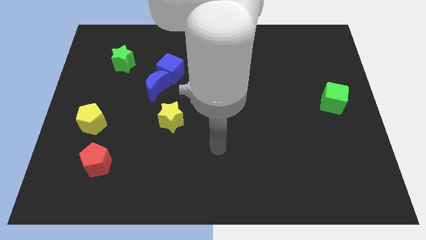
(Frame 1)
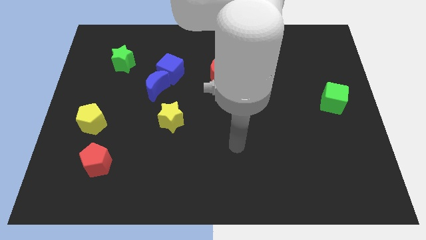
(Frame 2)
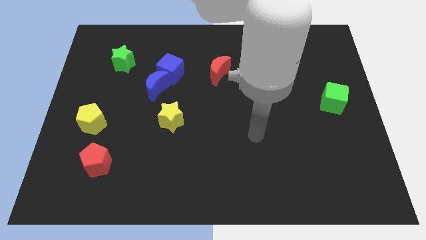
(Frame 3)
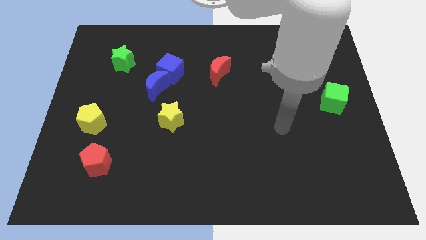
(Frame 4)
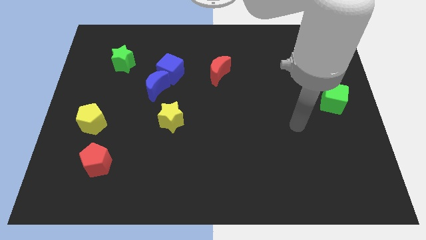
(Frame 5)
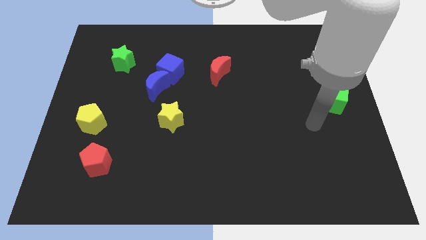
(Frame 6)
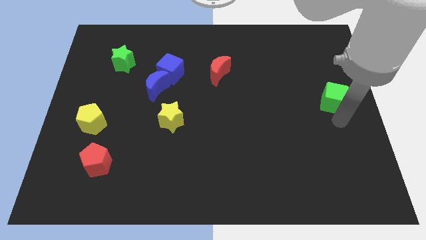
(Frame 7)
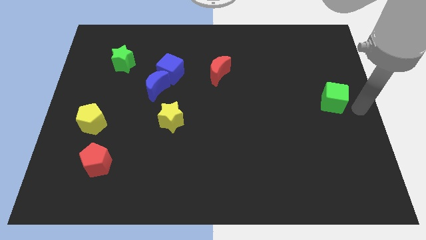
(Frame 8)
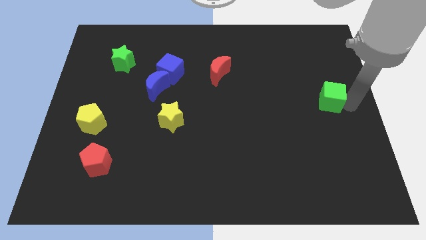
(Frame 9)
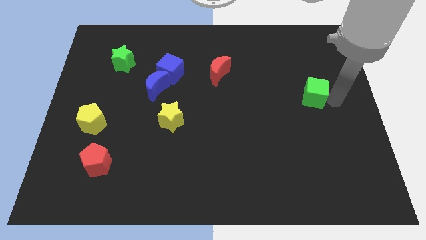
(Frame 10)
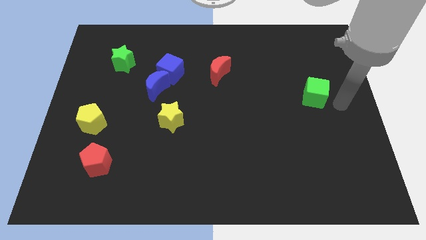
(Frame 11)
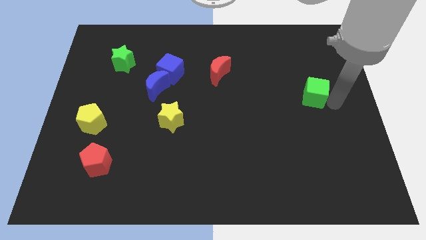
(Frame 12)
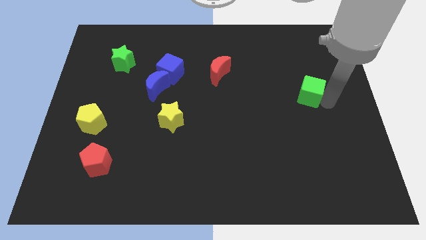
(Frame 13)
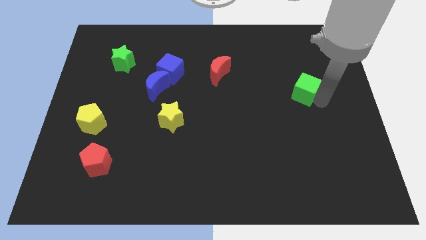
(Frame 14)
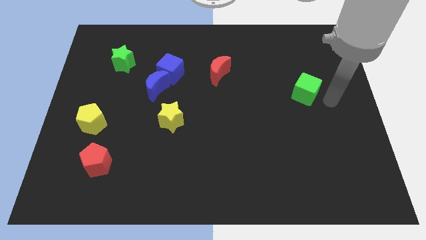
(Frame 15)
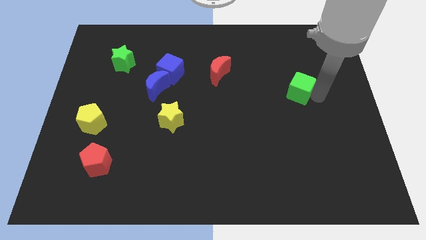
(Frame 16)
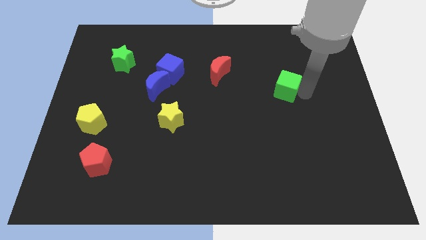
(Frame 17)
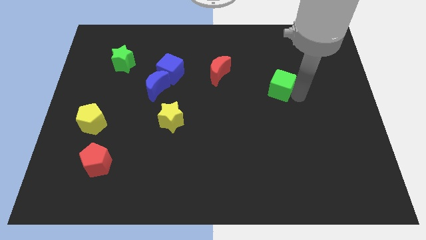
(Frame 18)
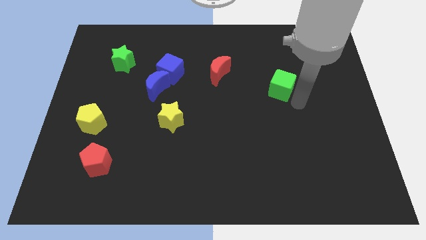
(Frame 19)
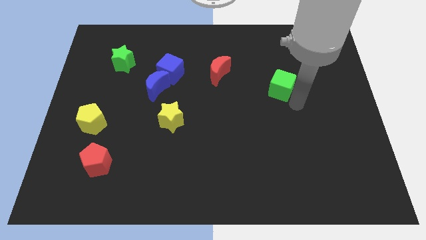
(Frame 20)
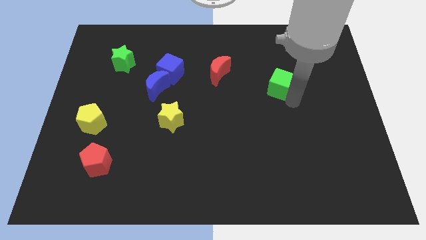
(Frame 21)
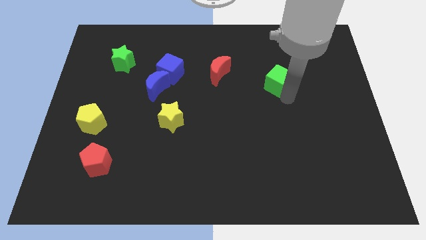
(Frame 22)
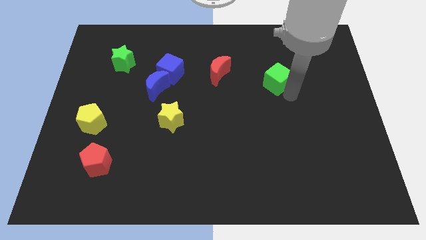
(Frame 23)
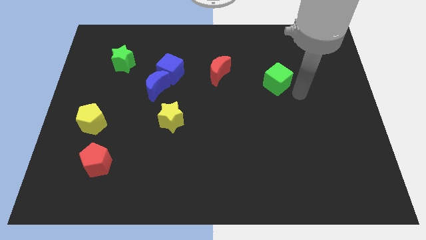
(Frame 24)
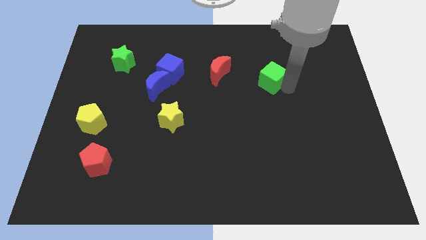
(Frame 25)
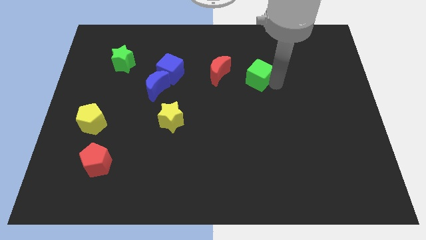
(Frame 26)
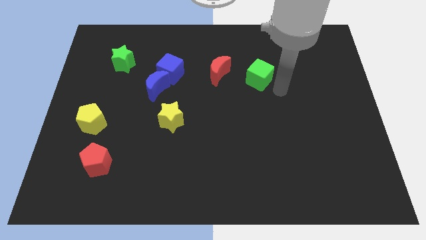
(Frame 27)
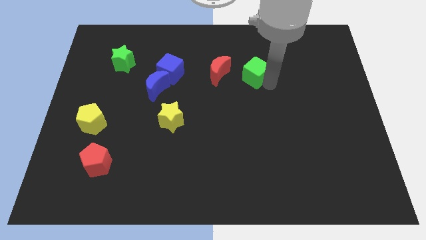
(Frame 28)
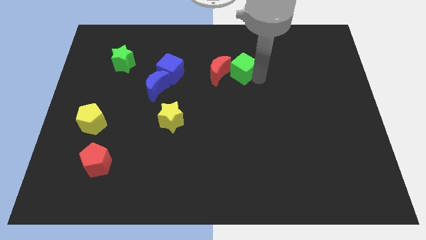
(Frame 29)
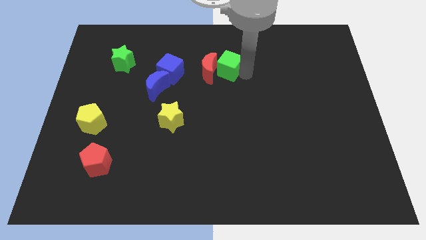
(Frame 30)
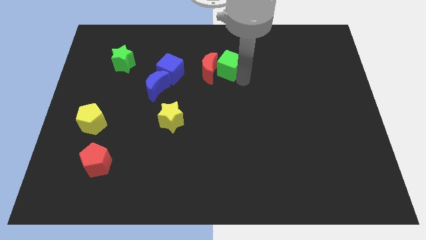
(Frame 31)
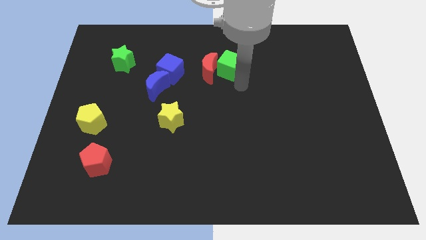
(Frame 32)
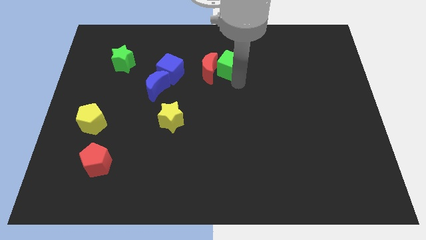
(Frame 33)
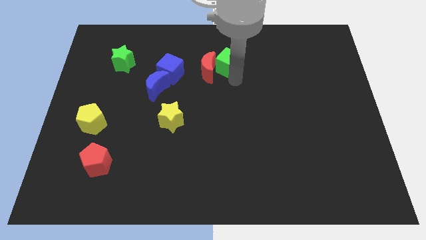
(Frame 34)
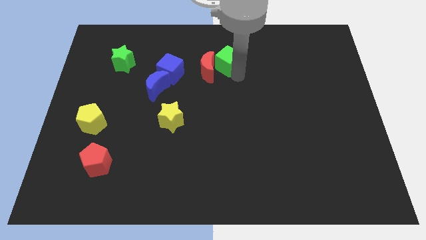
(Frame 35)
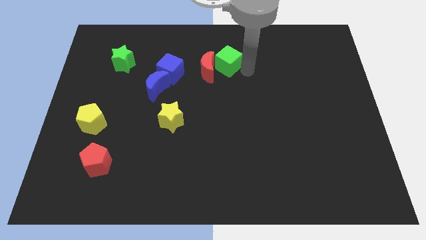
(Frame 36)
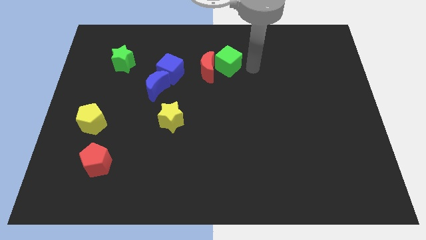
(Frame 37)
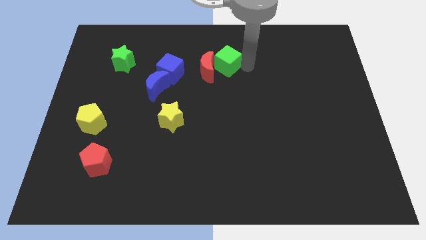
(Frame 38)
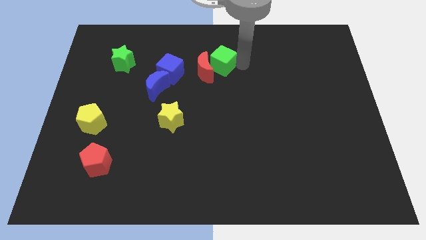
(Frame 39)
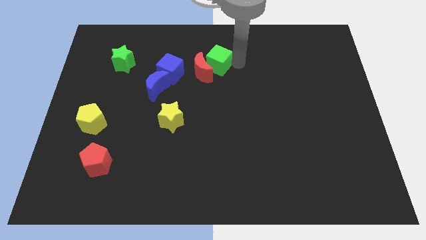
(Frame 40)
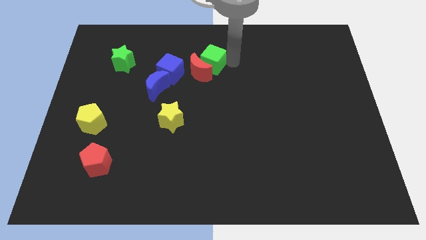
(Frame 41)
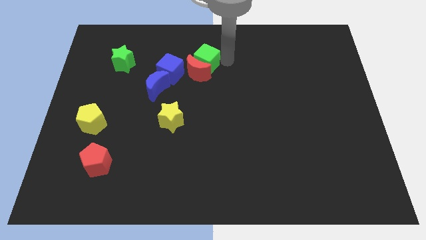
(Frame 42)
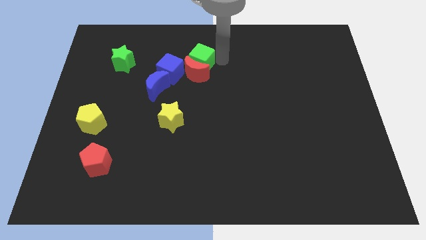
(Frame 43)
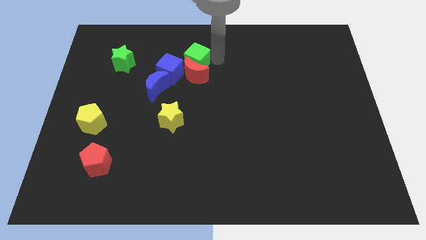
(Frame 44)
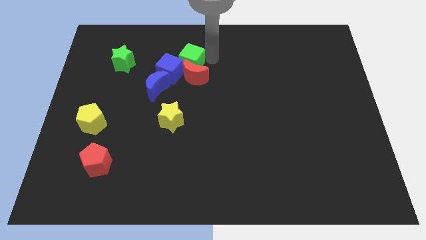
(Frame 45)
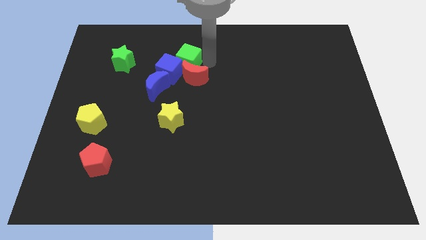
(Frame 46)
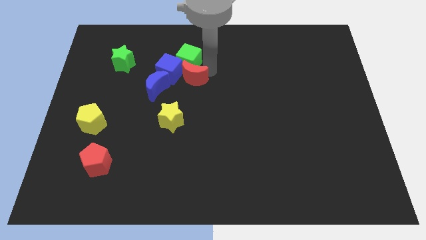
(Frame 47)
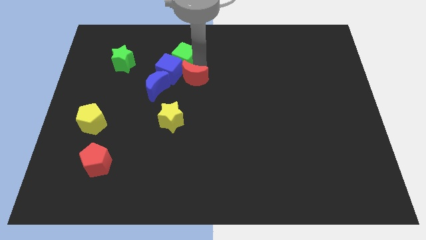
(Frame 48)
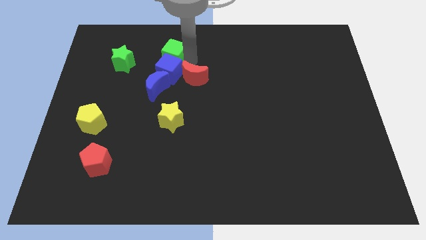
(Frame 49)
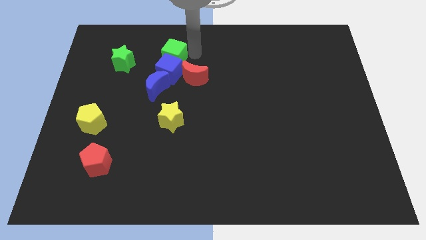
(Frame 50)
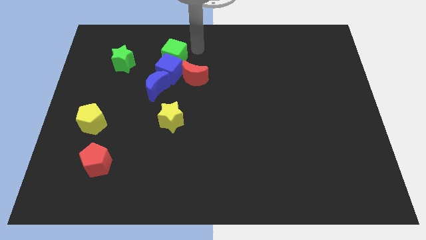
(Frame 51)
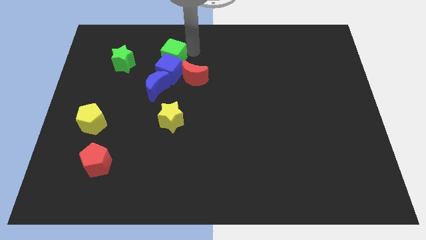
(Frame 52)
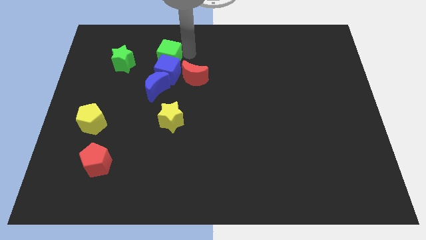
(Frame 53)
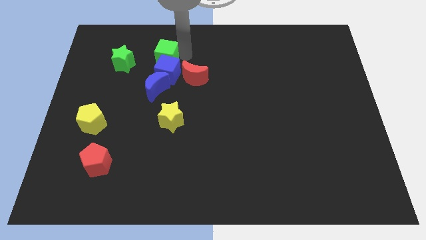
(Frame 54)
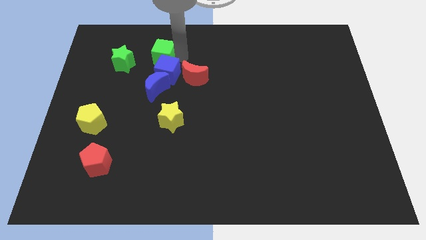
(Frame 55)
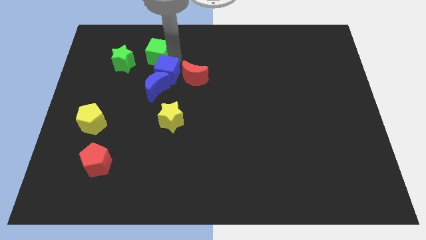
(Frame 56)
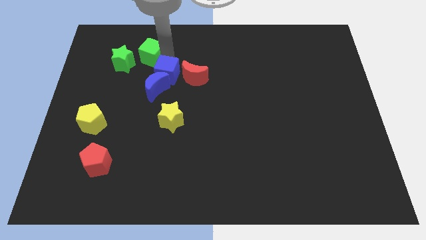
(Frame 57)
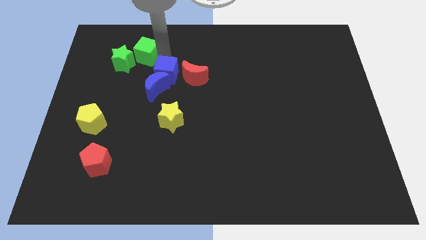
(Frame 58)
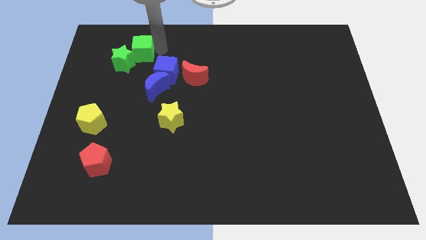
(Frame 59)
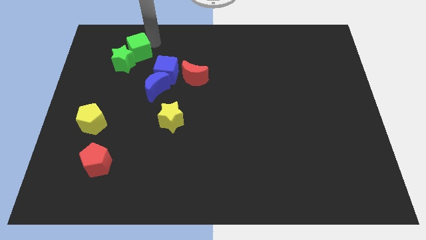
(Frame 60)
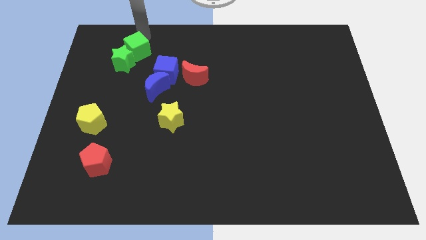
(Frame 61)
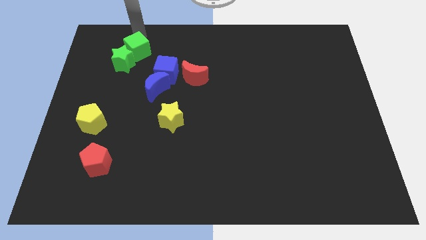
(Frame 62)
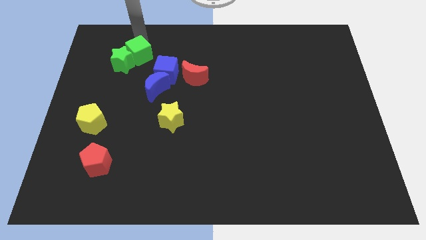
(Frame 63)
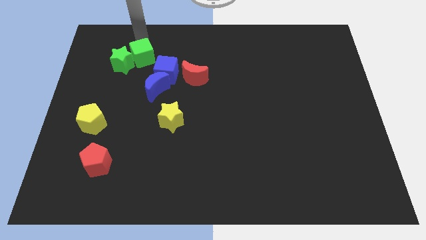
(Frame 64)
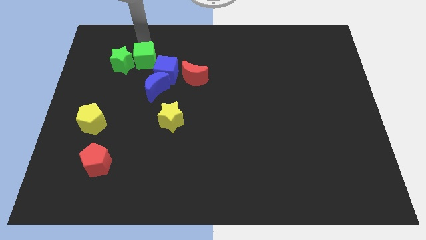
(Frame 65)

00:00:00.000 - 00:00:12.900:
push the green cube diagonally up and to the left of the blue moon

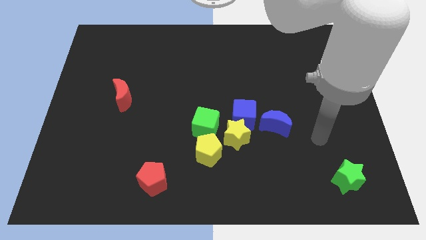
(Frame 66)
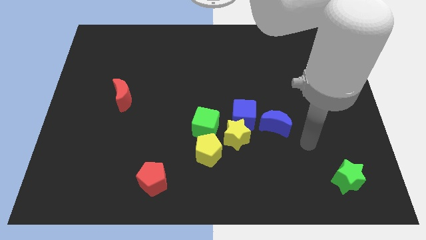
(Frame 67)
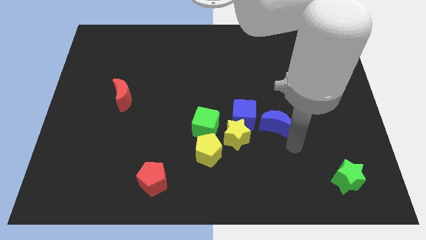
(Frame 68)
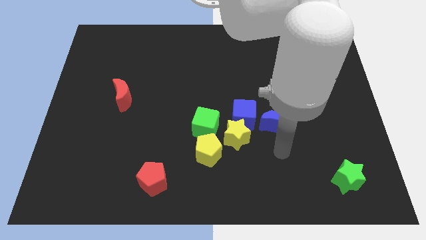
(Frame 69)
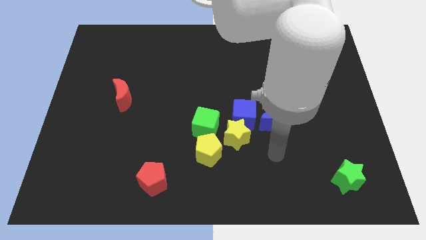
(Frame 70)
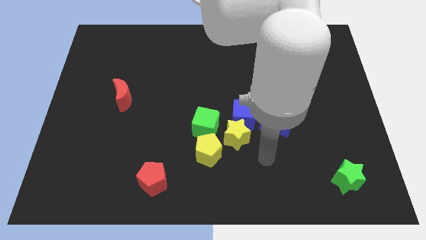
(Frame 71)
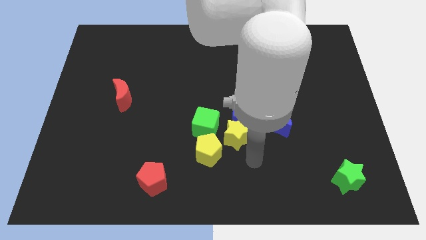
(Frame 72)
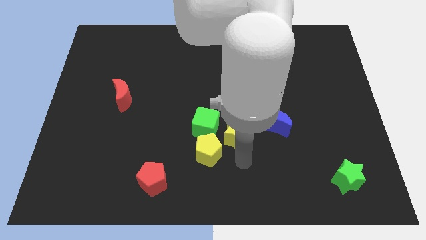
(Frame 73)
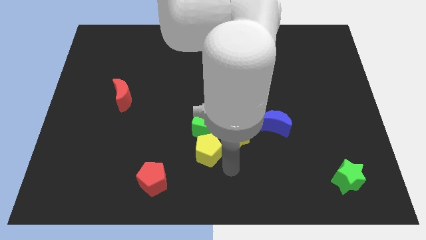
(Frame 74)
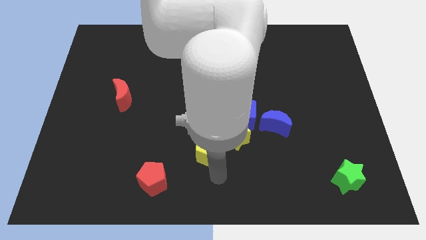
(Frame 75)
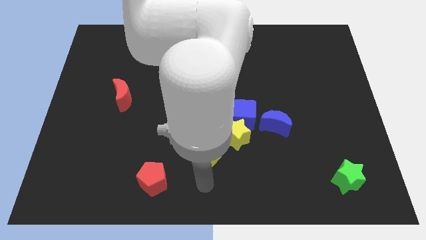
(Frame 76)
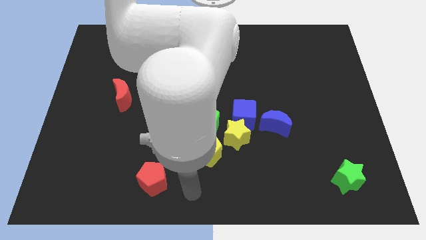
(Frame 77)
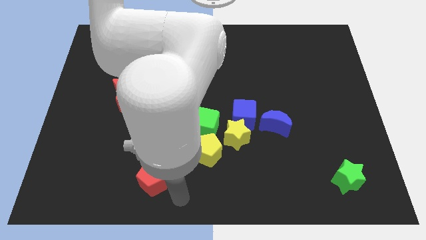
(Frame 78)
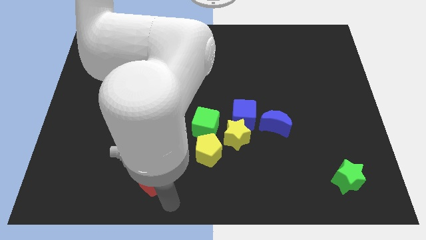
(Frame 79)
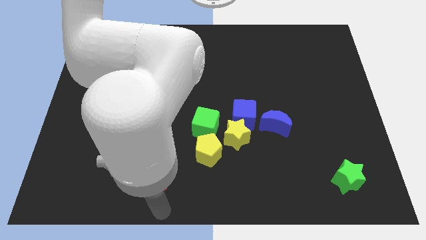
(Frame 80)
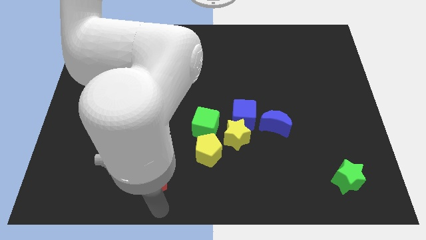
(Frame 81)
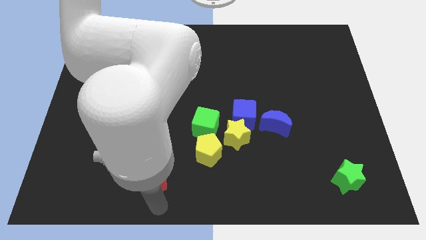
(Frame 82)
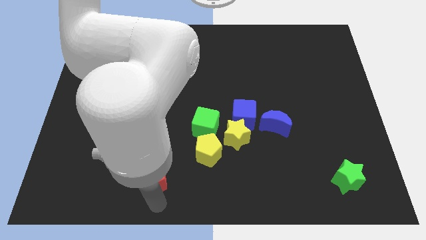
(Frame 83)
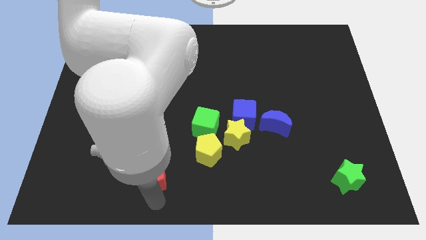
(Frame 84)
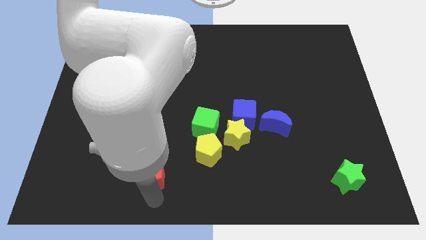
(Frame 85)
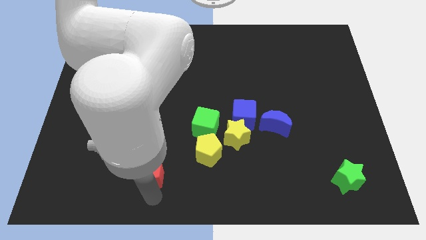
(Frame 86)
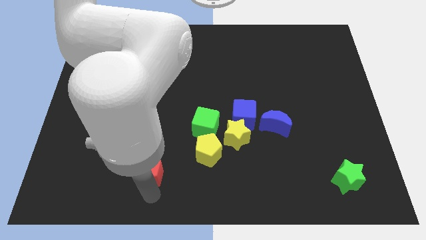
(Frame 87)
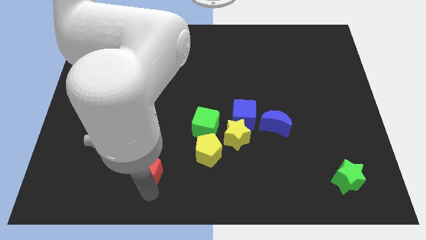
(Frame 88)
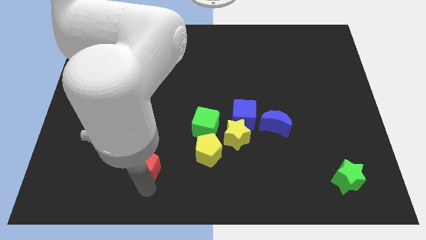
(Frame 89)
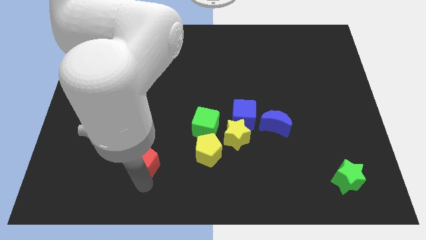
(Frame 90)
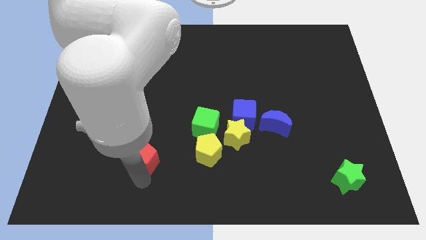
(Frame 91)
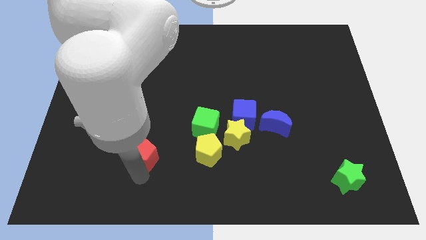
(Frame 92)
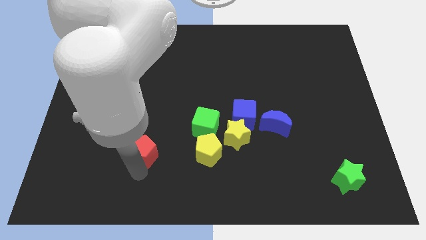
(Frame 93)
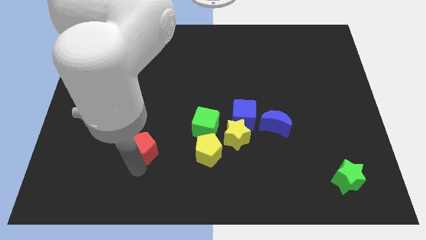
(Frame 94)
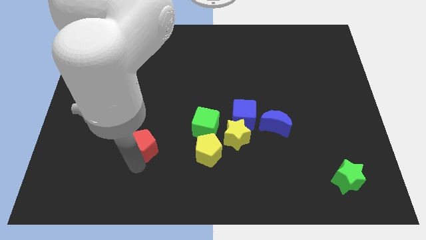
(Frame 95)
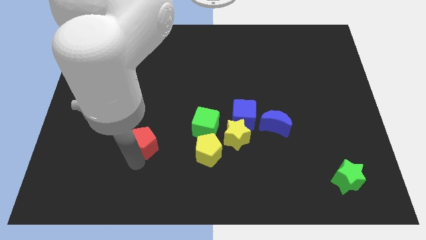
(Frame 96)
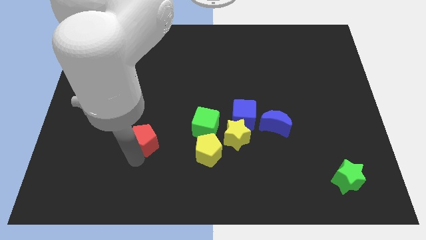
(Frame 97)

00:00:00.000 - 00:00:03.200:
put the red pentagon left of the green cube
